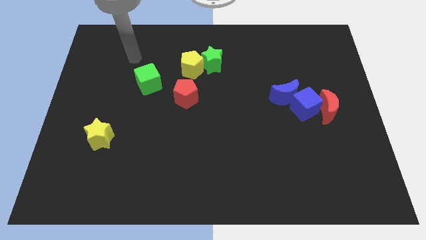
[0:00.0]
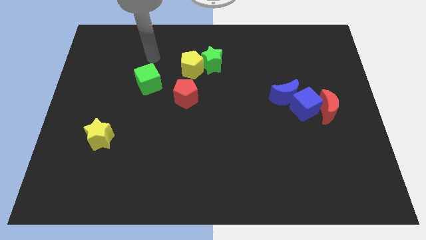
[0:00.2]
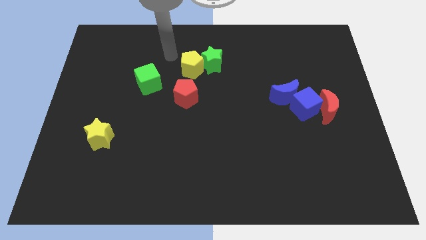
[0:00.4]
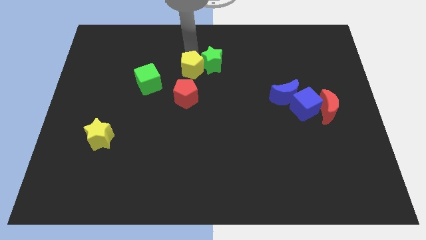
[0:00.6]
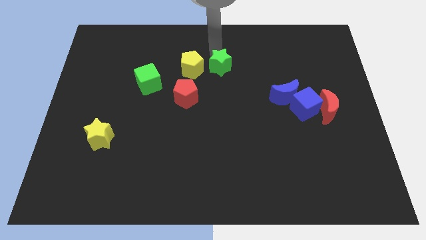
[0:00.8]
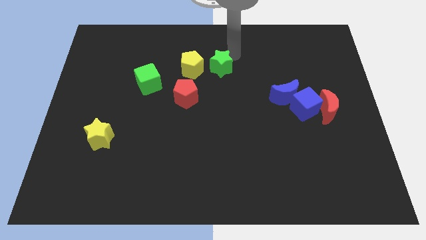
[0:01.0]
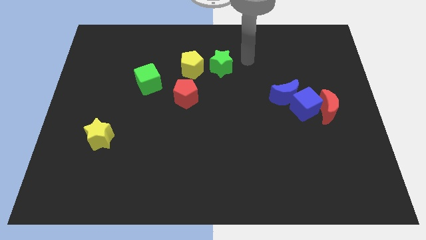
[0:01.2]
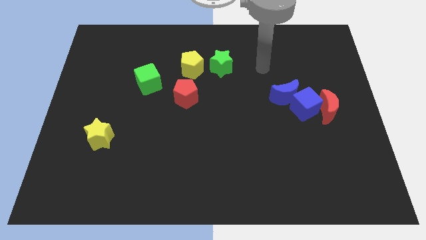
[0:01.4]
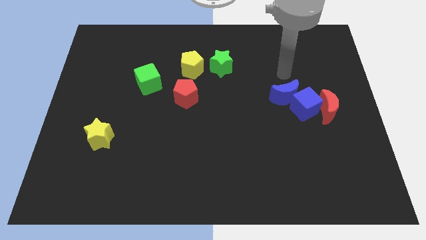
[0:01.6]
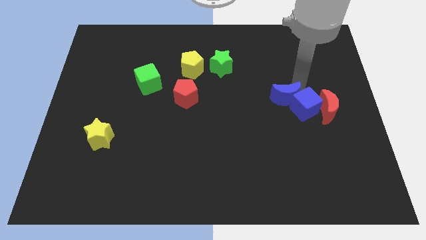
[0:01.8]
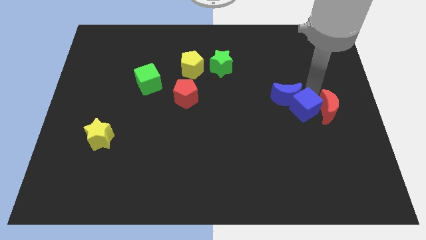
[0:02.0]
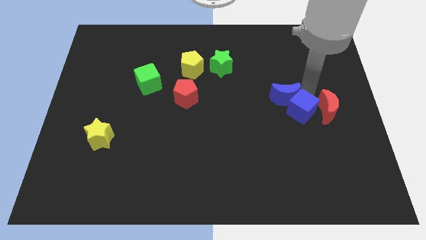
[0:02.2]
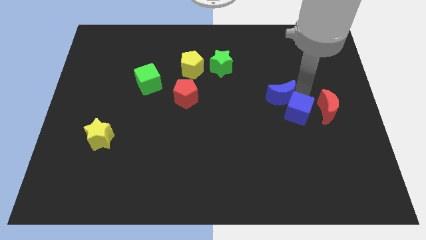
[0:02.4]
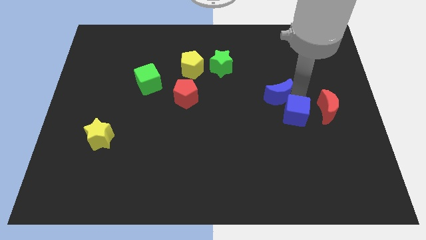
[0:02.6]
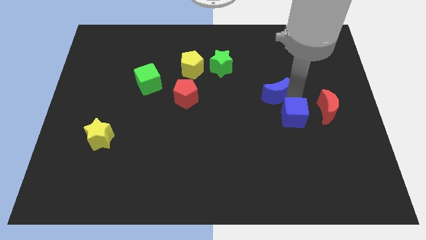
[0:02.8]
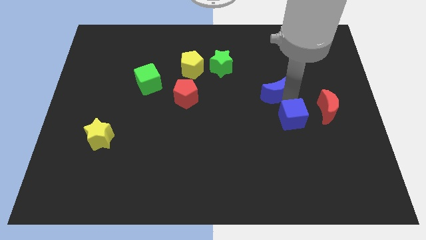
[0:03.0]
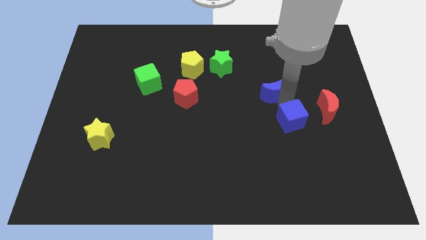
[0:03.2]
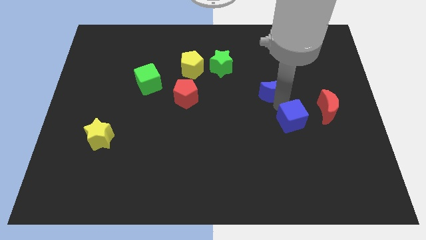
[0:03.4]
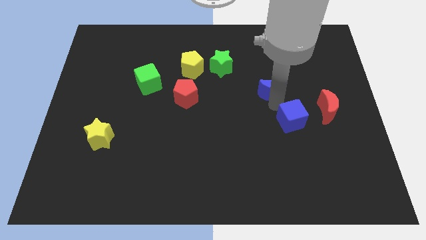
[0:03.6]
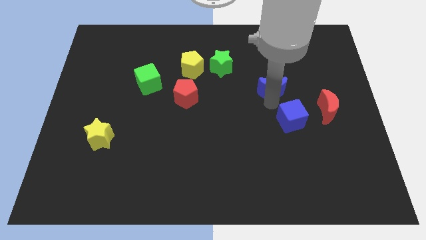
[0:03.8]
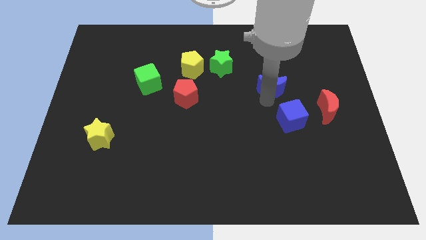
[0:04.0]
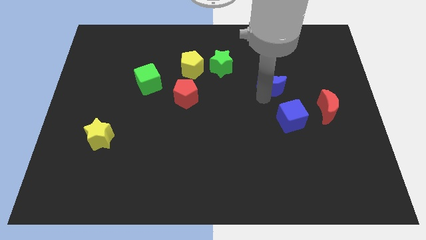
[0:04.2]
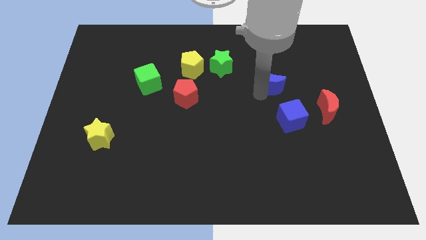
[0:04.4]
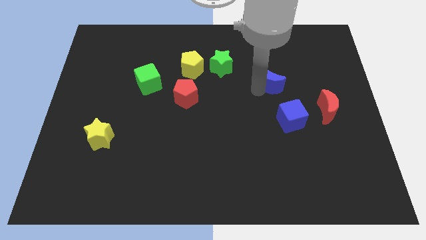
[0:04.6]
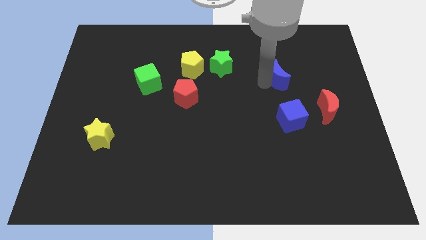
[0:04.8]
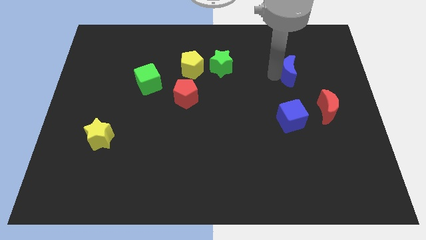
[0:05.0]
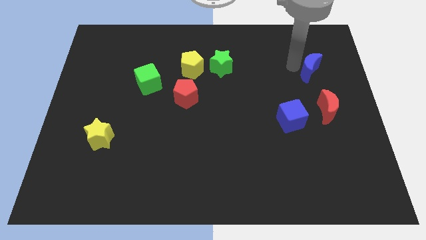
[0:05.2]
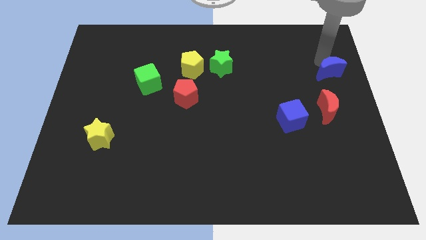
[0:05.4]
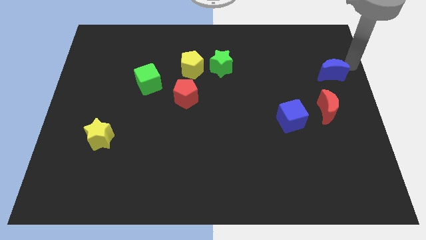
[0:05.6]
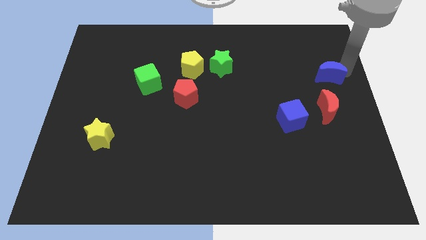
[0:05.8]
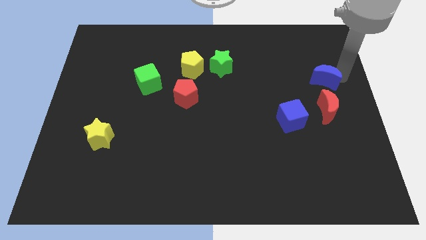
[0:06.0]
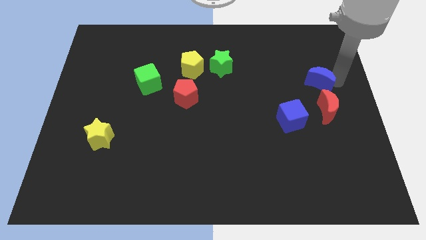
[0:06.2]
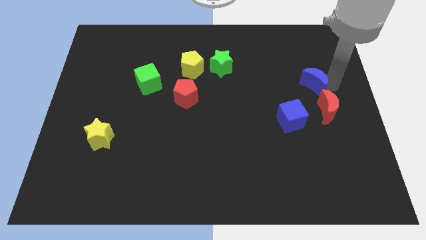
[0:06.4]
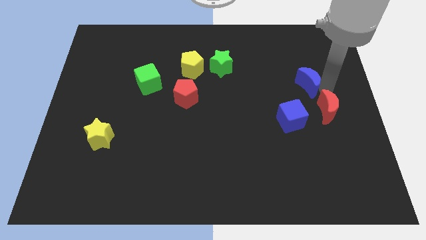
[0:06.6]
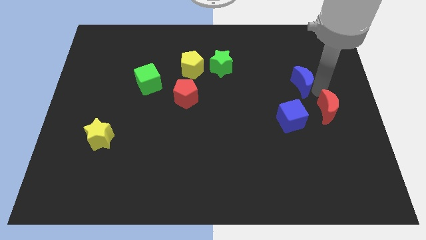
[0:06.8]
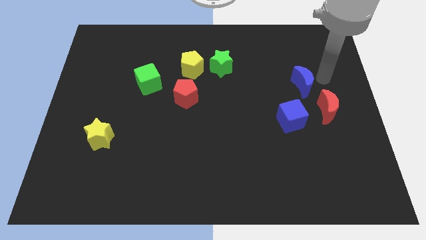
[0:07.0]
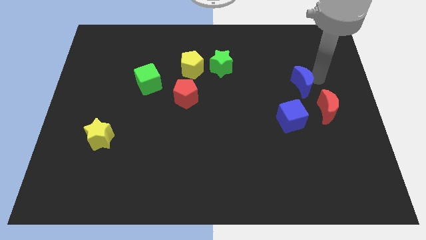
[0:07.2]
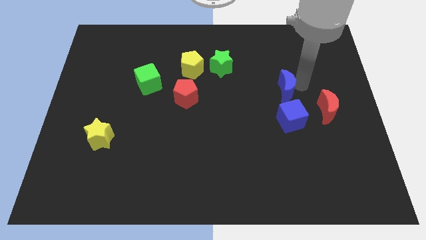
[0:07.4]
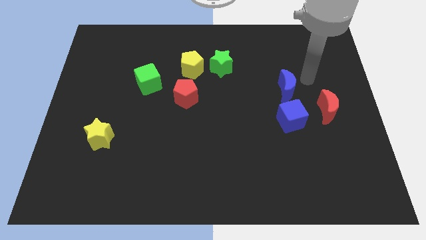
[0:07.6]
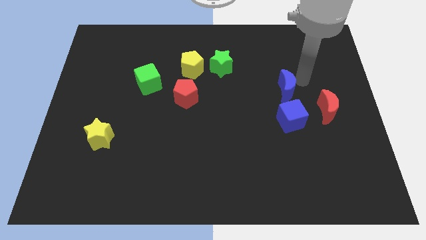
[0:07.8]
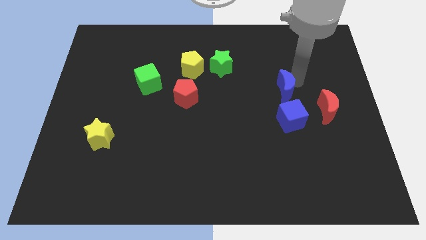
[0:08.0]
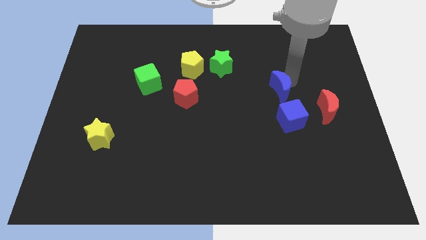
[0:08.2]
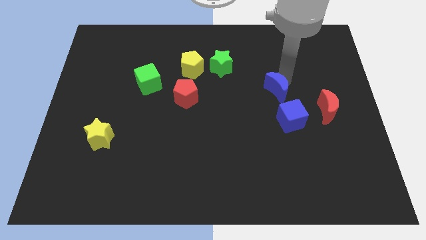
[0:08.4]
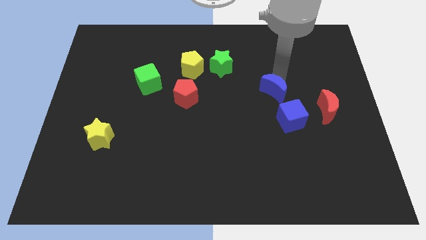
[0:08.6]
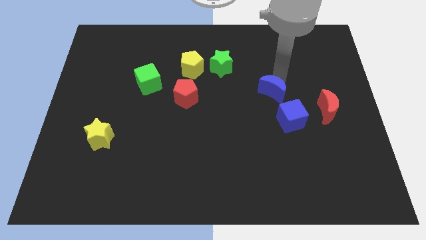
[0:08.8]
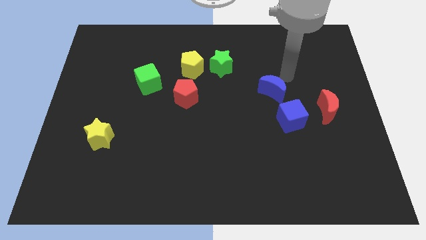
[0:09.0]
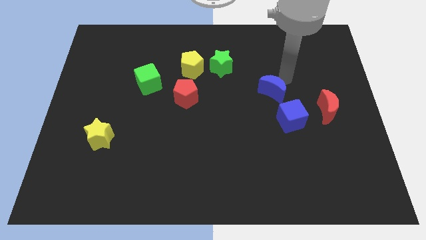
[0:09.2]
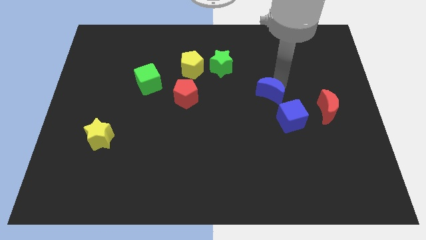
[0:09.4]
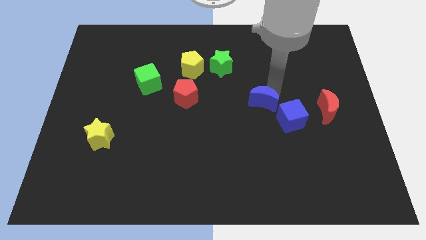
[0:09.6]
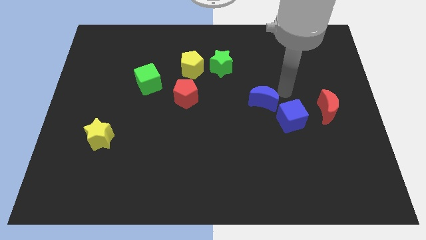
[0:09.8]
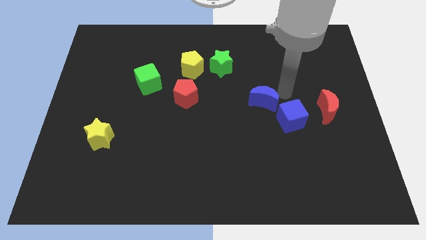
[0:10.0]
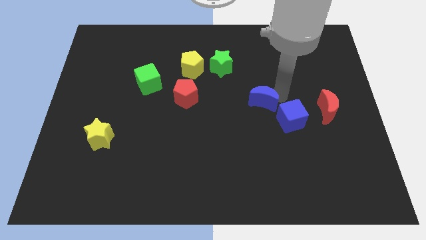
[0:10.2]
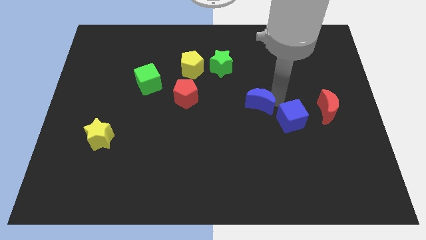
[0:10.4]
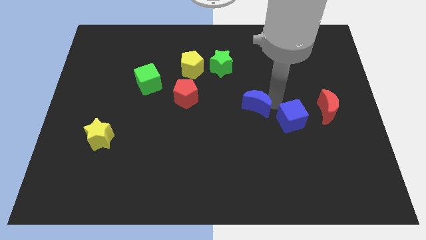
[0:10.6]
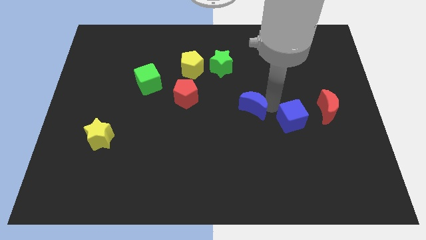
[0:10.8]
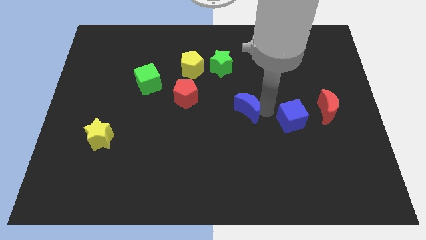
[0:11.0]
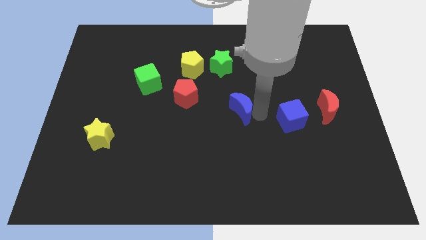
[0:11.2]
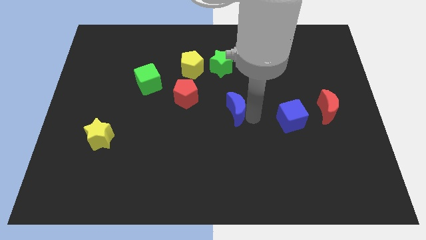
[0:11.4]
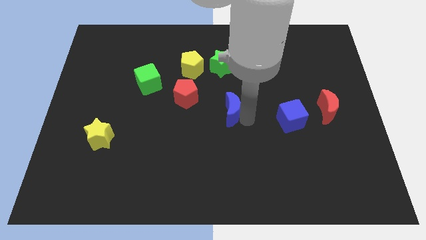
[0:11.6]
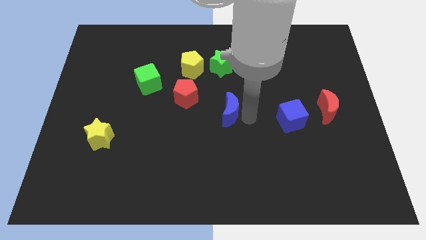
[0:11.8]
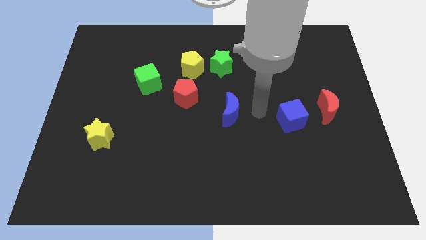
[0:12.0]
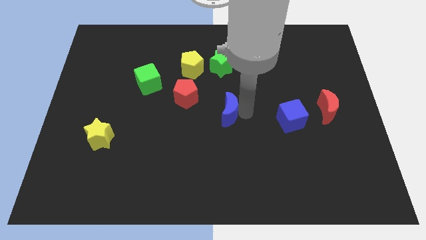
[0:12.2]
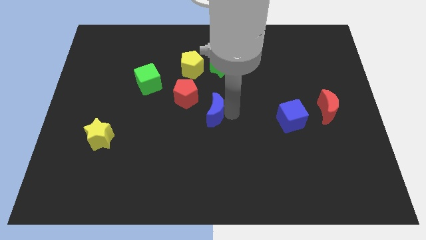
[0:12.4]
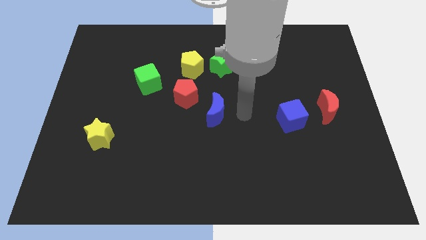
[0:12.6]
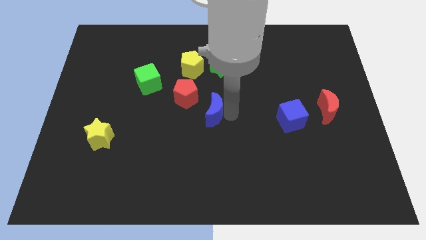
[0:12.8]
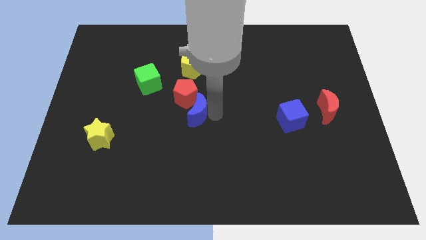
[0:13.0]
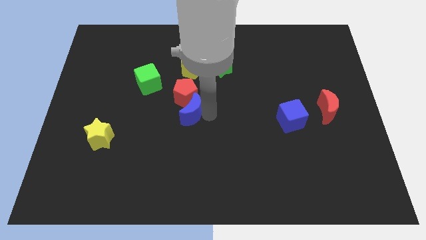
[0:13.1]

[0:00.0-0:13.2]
move the blue moon left

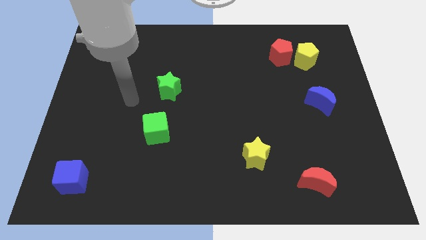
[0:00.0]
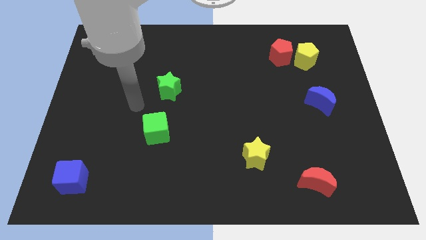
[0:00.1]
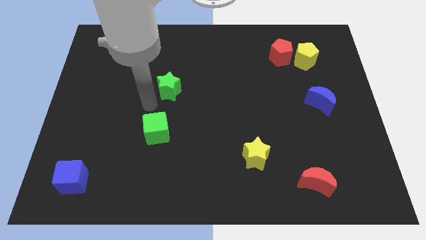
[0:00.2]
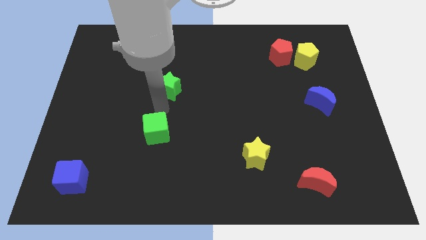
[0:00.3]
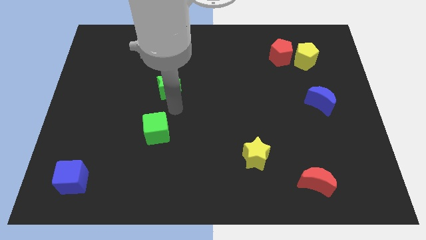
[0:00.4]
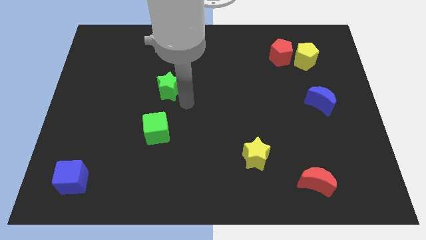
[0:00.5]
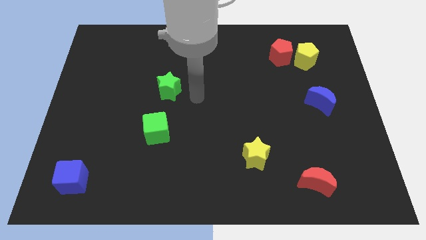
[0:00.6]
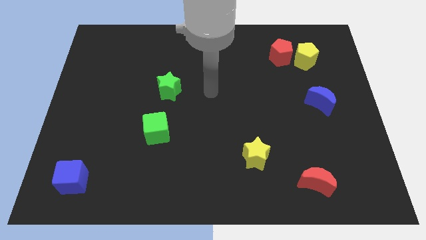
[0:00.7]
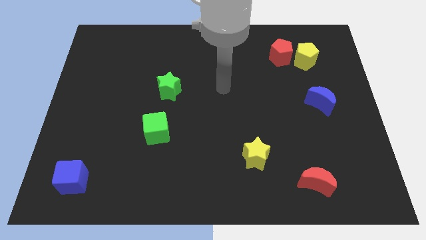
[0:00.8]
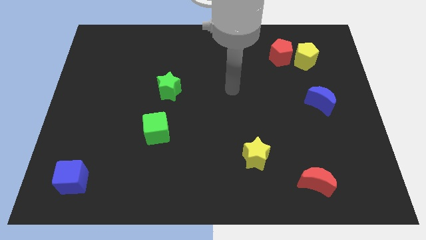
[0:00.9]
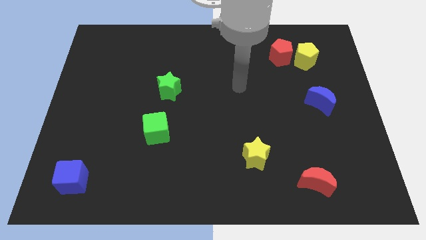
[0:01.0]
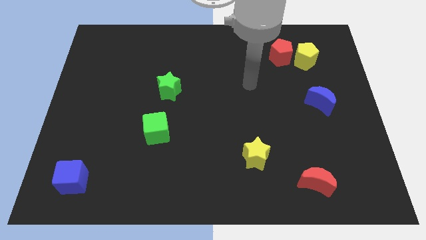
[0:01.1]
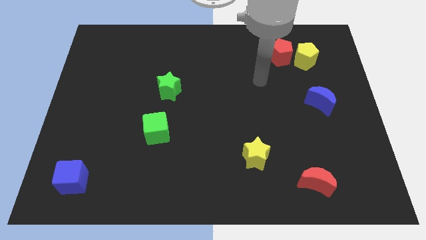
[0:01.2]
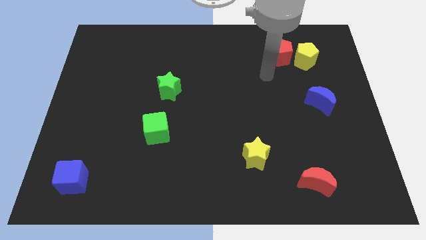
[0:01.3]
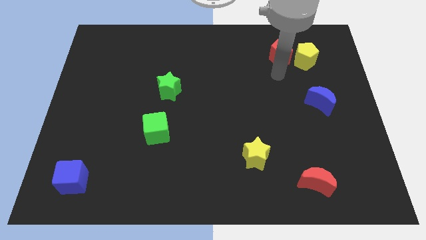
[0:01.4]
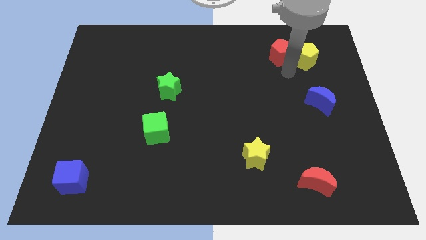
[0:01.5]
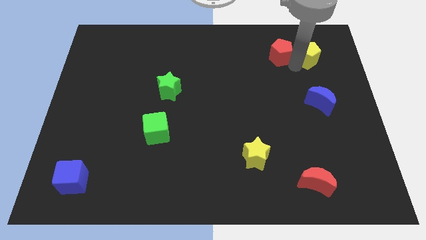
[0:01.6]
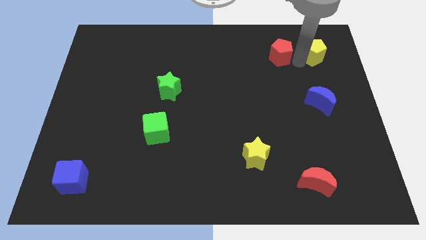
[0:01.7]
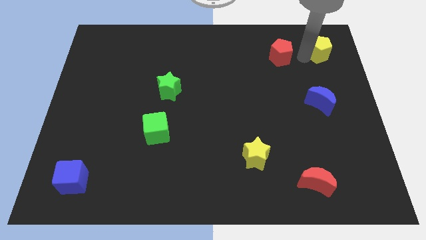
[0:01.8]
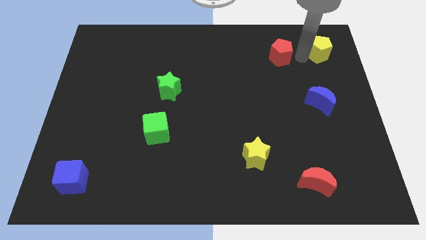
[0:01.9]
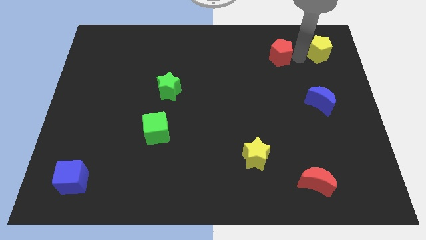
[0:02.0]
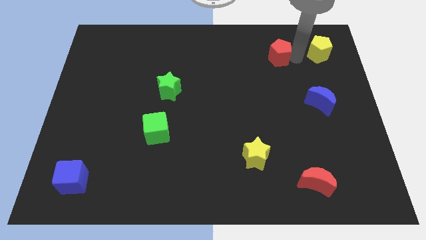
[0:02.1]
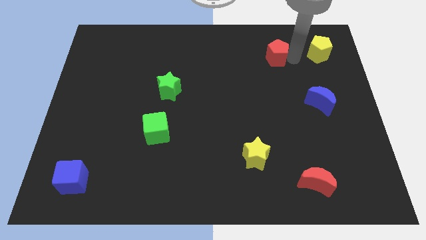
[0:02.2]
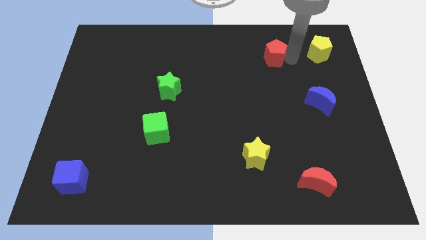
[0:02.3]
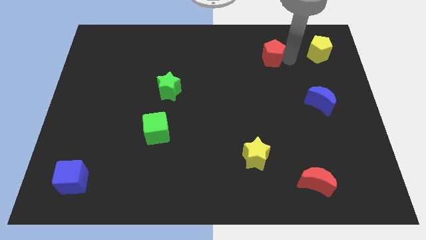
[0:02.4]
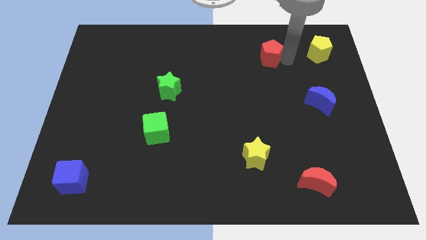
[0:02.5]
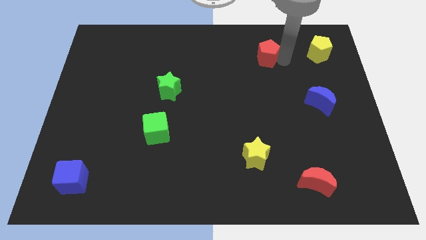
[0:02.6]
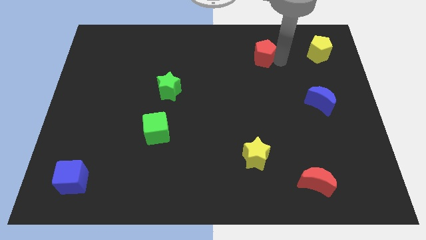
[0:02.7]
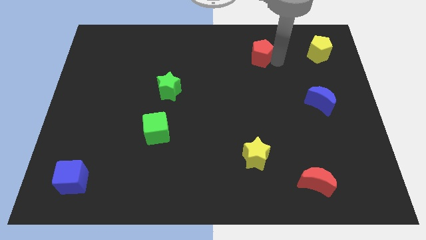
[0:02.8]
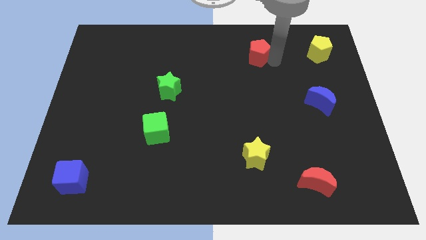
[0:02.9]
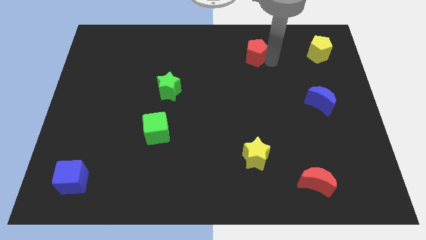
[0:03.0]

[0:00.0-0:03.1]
push the red pentagon somewhat to the left
